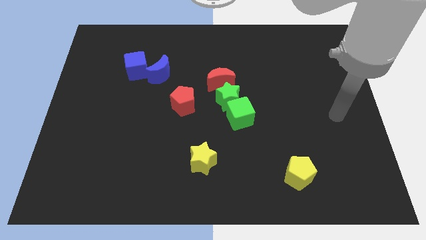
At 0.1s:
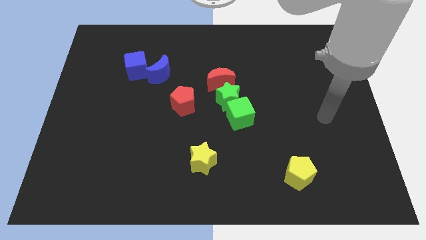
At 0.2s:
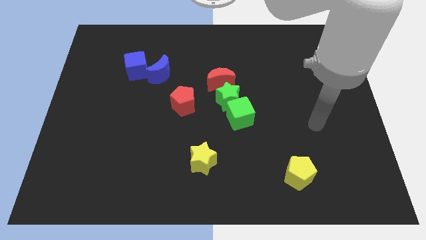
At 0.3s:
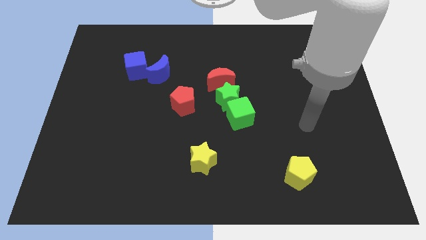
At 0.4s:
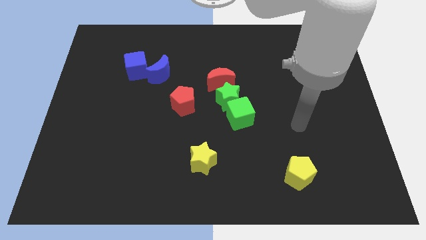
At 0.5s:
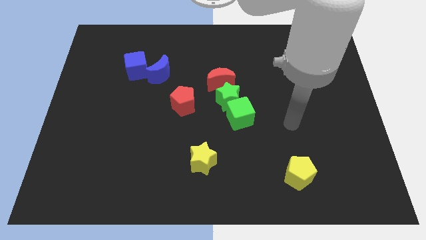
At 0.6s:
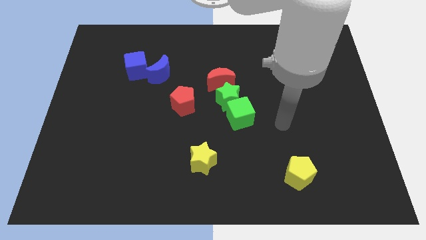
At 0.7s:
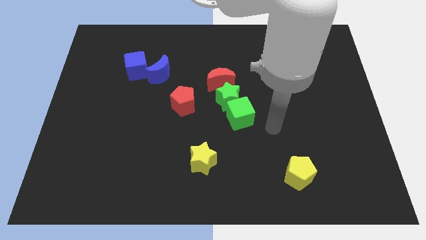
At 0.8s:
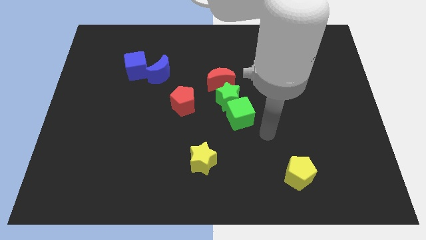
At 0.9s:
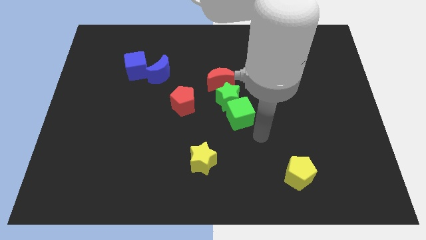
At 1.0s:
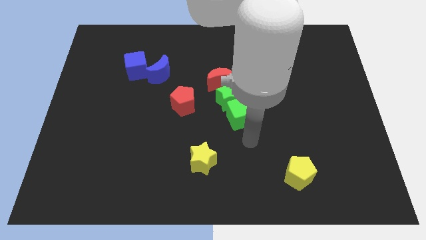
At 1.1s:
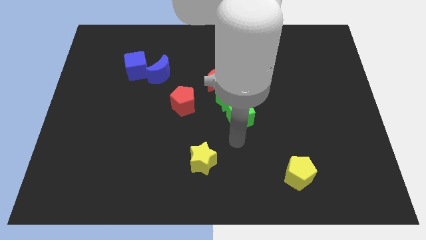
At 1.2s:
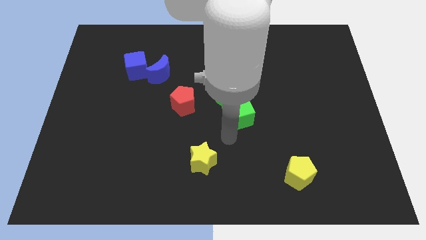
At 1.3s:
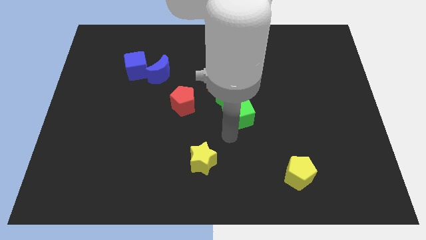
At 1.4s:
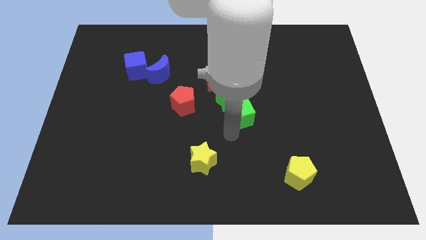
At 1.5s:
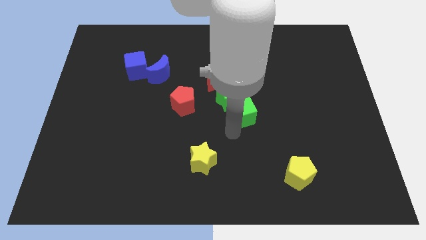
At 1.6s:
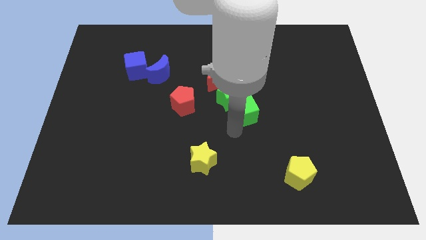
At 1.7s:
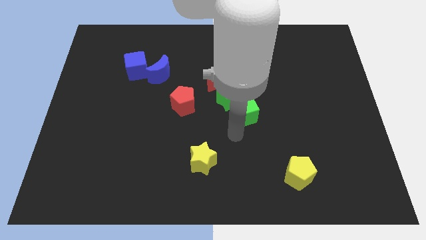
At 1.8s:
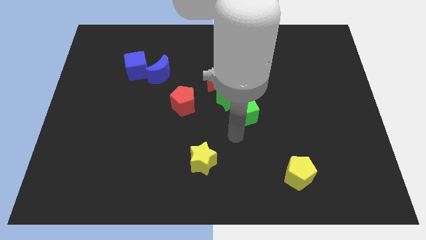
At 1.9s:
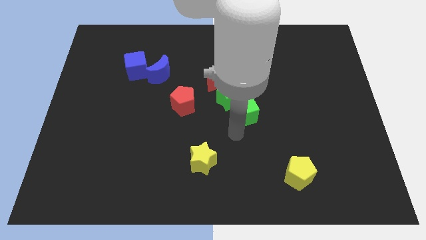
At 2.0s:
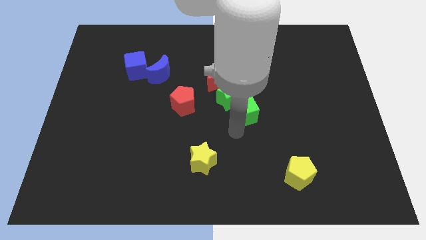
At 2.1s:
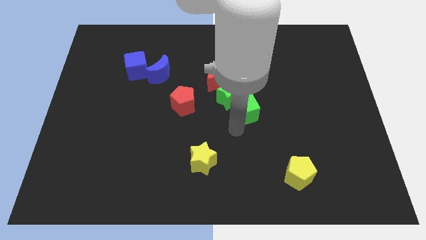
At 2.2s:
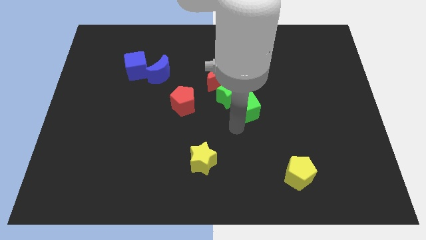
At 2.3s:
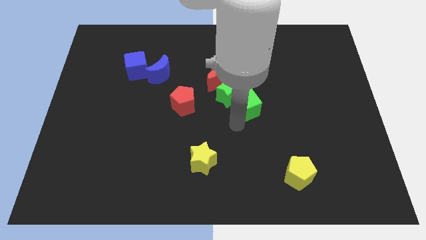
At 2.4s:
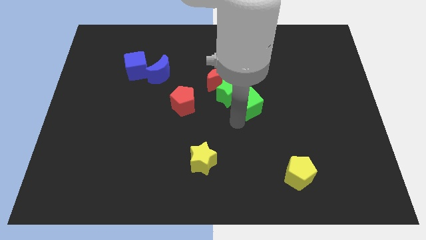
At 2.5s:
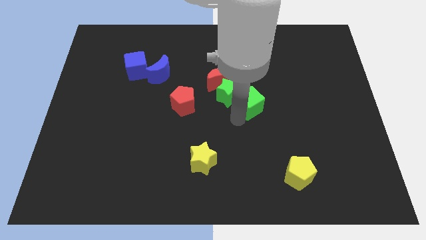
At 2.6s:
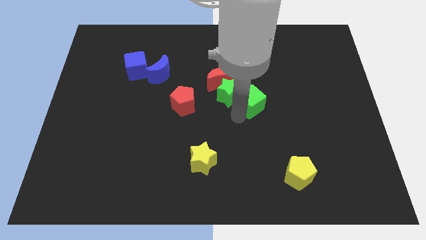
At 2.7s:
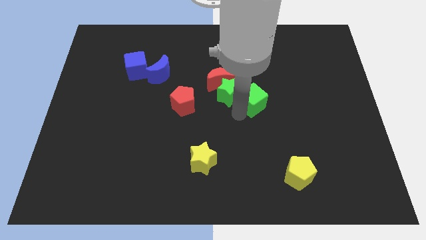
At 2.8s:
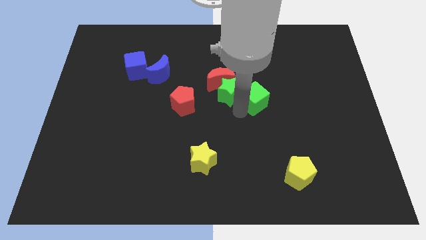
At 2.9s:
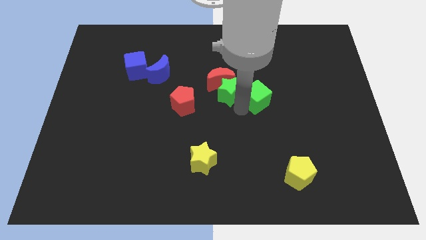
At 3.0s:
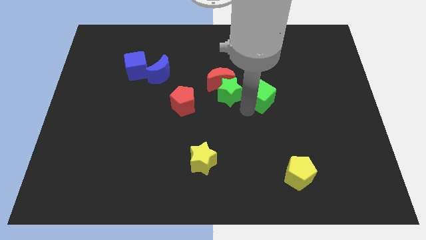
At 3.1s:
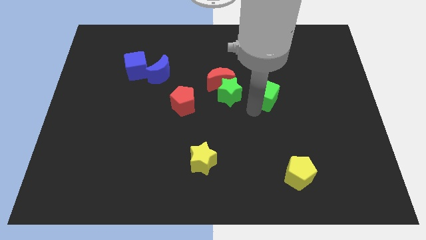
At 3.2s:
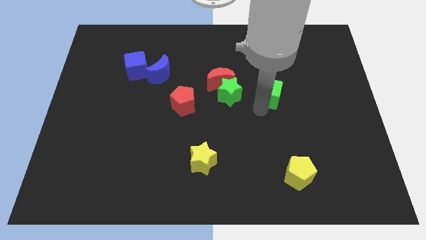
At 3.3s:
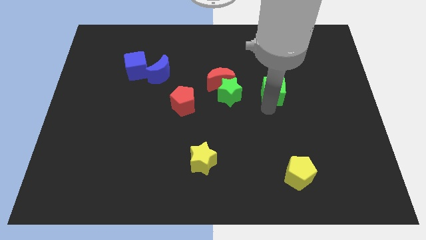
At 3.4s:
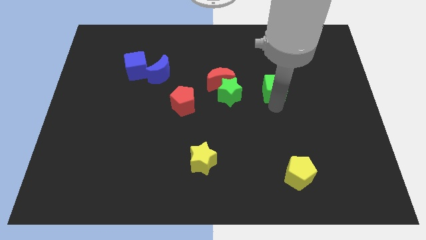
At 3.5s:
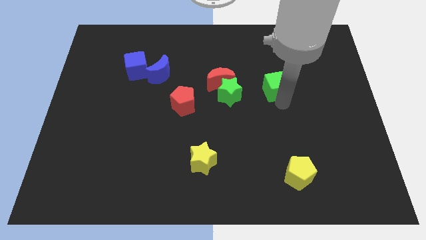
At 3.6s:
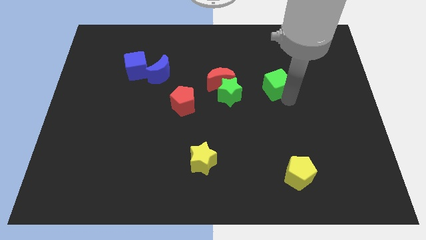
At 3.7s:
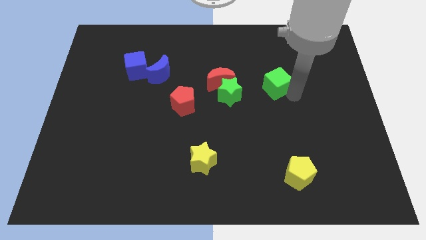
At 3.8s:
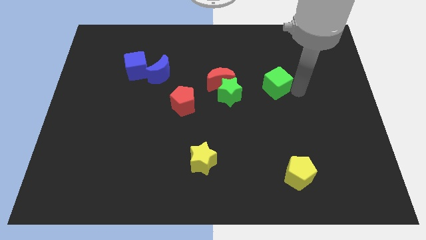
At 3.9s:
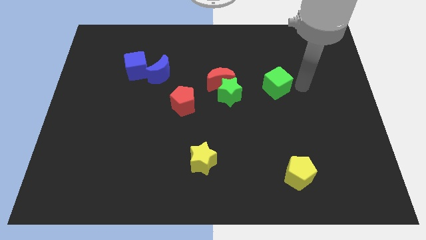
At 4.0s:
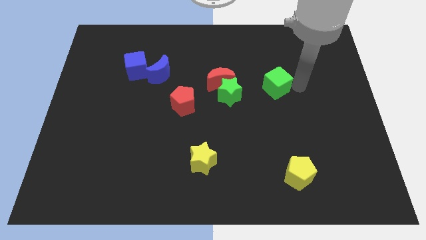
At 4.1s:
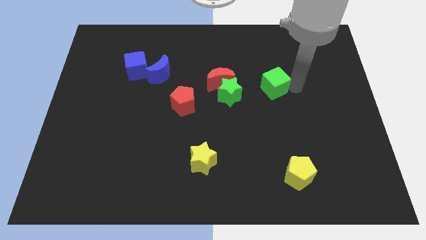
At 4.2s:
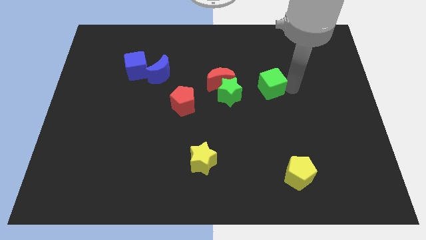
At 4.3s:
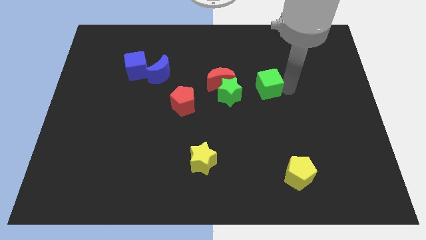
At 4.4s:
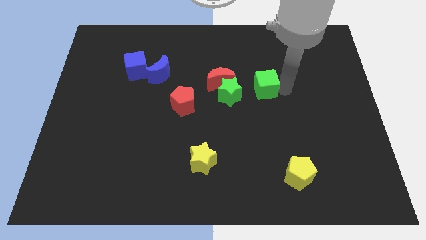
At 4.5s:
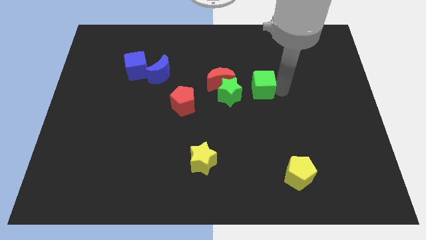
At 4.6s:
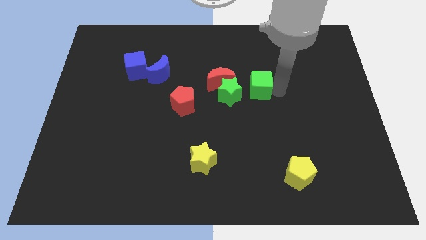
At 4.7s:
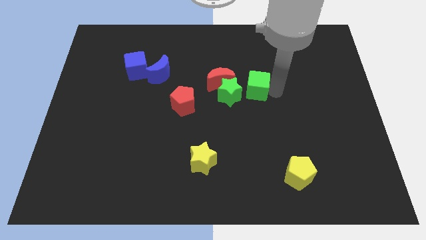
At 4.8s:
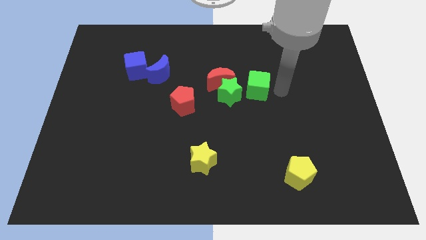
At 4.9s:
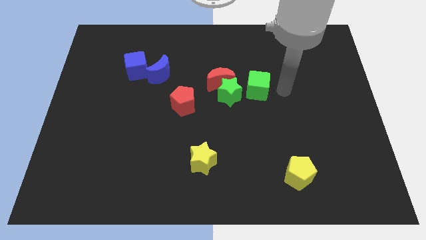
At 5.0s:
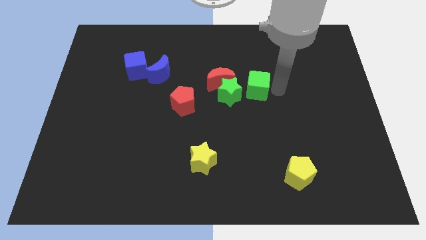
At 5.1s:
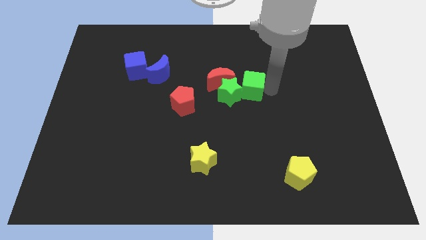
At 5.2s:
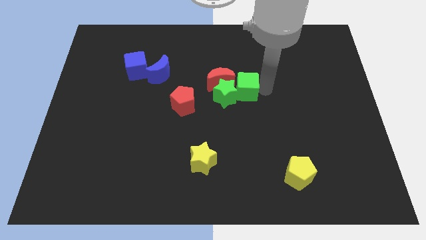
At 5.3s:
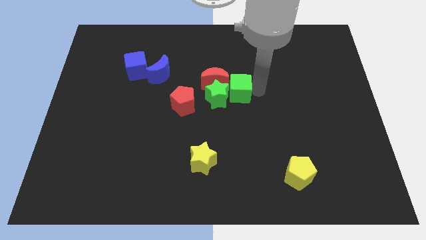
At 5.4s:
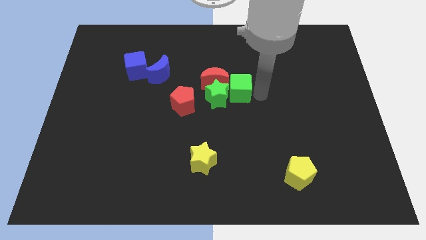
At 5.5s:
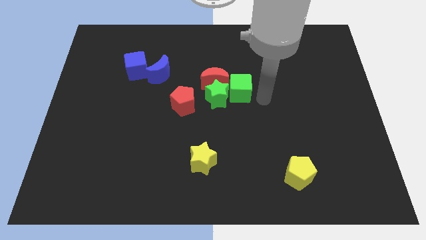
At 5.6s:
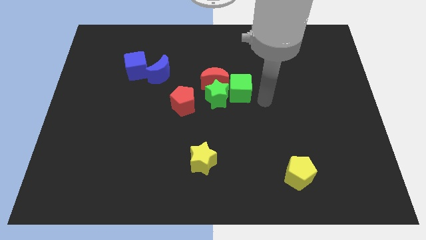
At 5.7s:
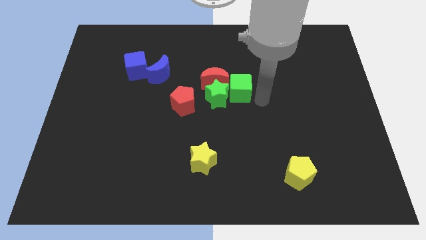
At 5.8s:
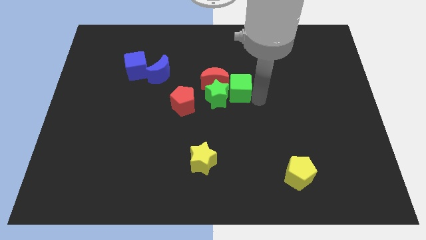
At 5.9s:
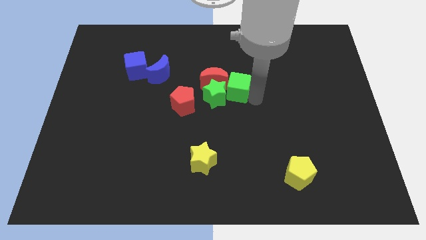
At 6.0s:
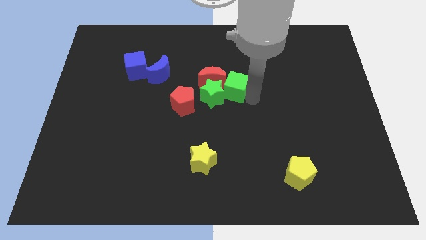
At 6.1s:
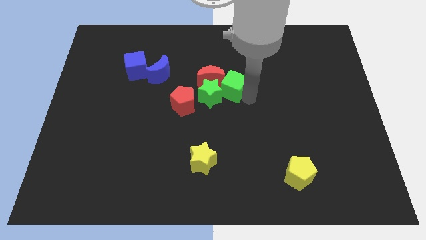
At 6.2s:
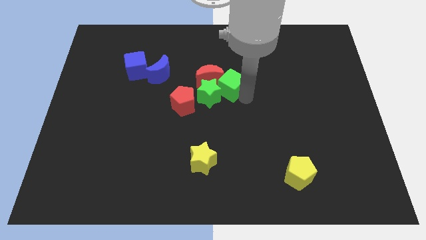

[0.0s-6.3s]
push the green cube towards the red moon

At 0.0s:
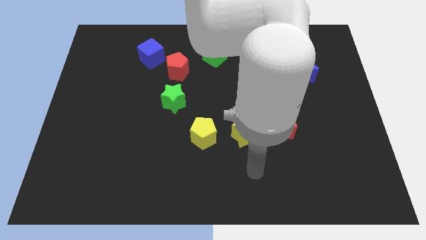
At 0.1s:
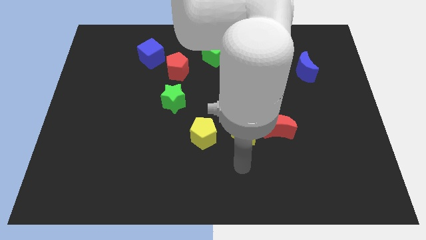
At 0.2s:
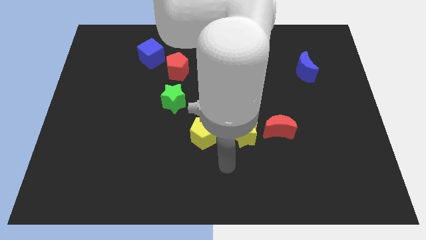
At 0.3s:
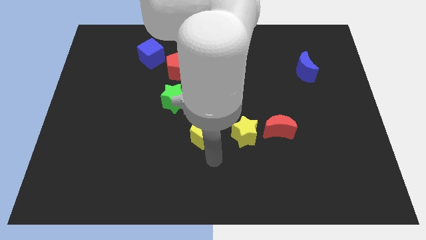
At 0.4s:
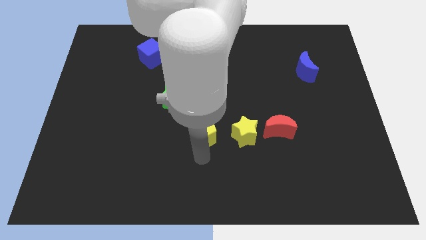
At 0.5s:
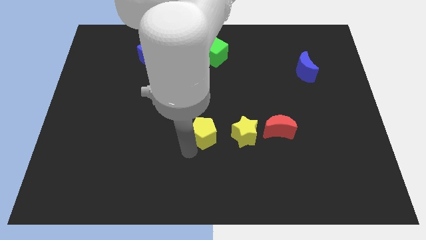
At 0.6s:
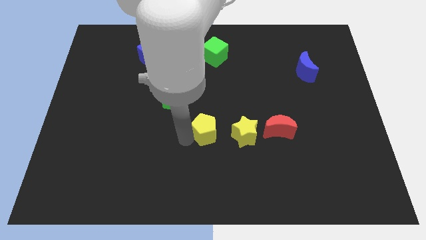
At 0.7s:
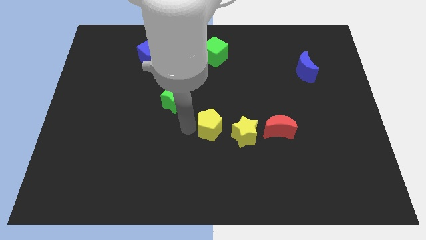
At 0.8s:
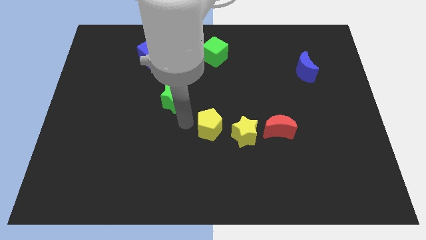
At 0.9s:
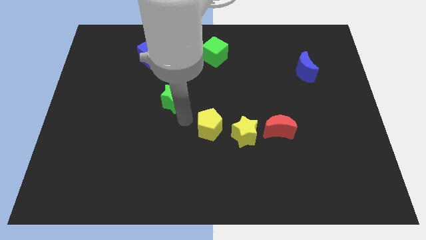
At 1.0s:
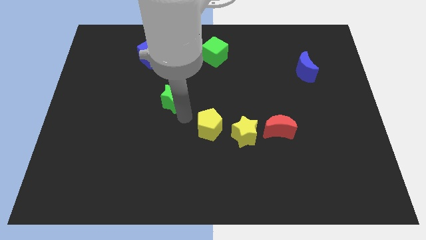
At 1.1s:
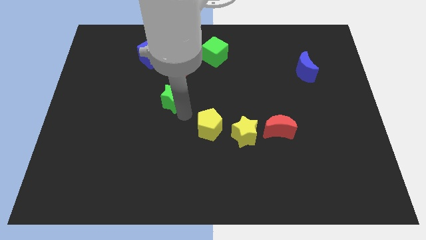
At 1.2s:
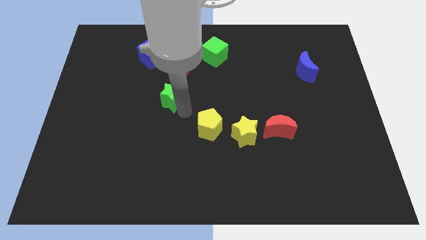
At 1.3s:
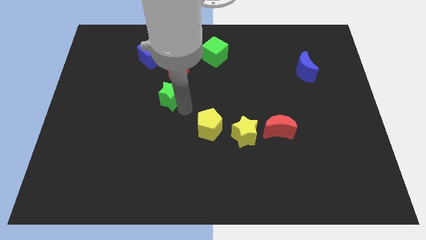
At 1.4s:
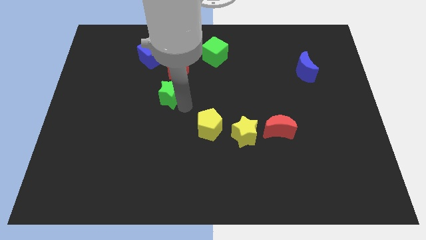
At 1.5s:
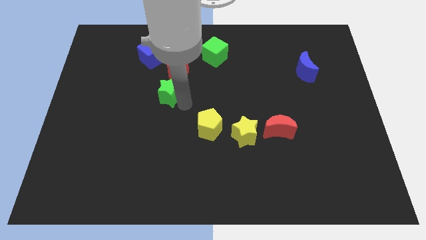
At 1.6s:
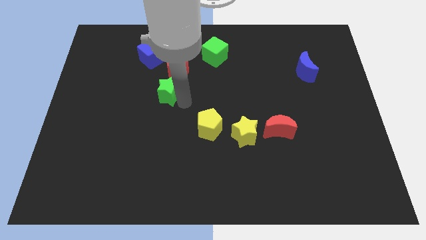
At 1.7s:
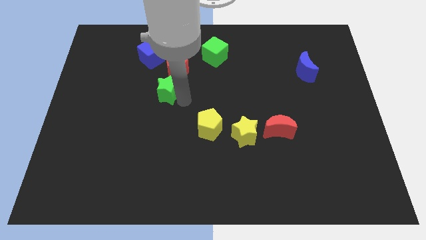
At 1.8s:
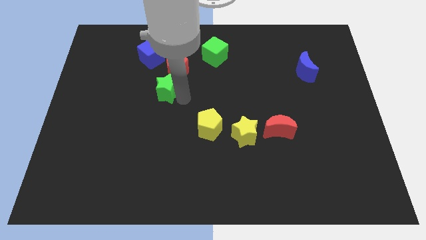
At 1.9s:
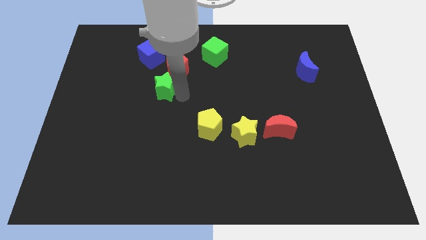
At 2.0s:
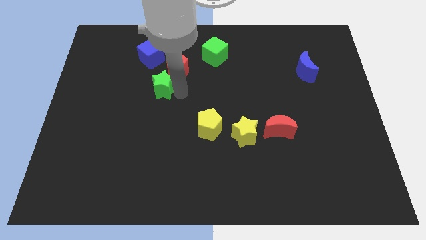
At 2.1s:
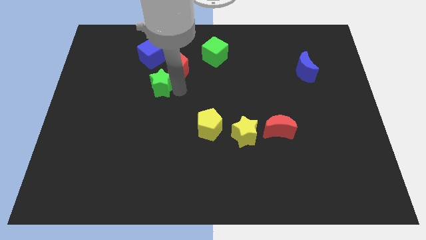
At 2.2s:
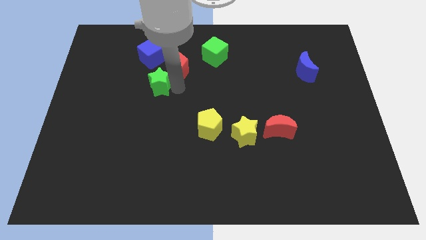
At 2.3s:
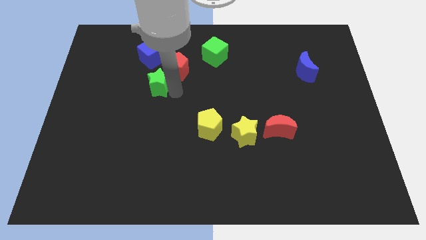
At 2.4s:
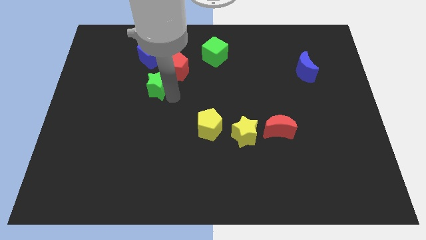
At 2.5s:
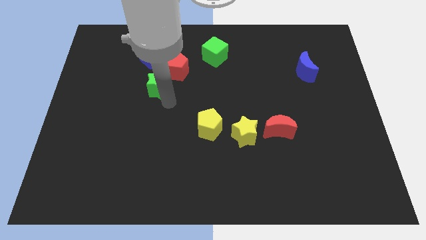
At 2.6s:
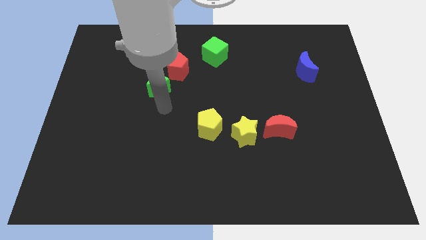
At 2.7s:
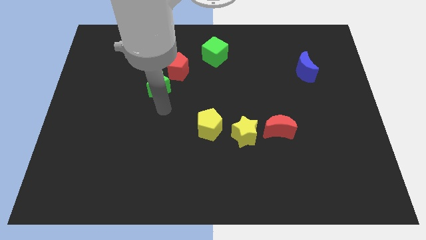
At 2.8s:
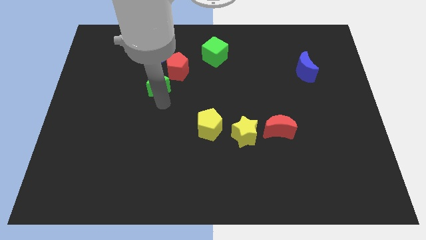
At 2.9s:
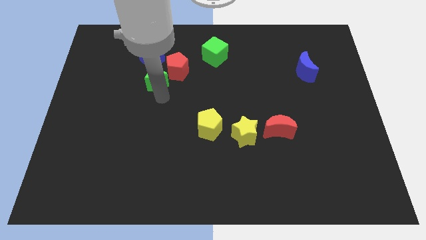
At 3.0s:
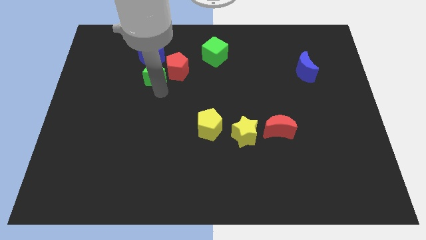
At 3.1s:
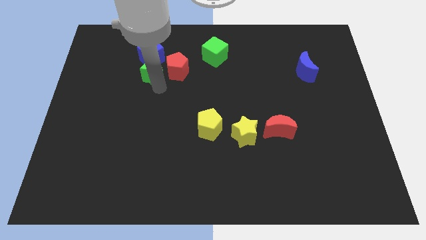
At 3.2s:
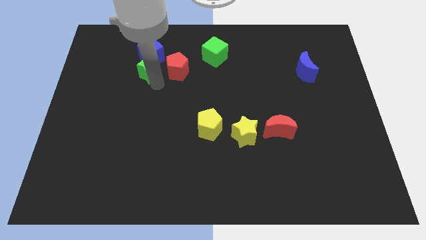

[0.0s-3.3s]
push the green star towards the blue cube
